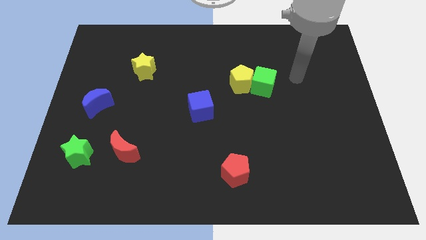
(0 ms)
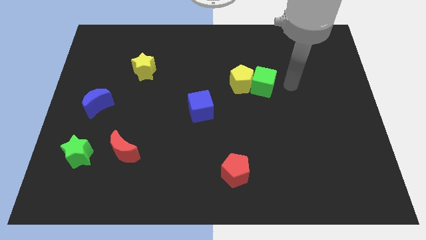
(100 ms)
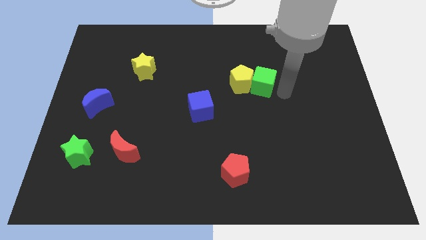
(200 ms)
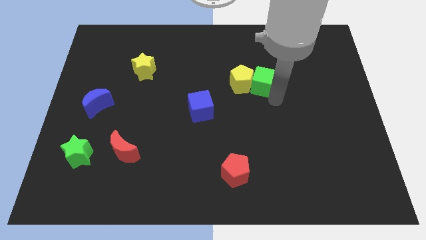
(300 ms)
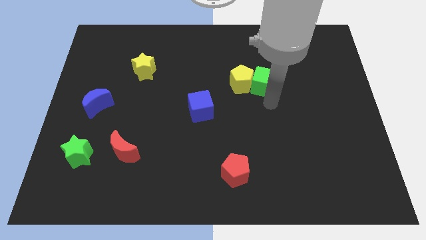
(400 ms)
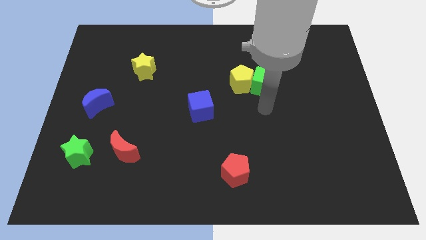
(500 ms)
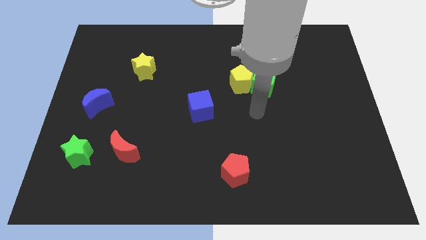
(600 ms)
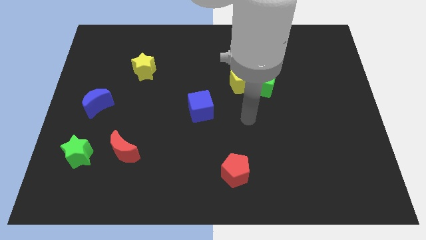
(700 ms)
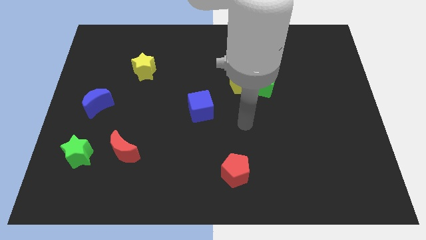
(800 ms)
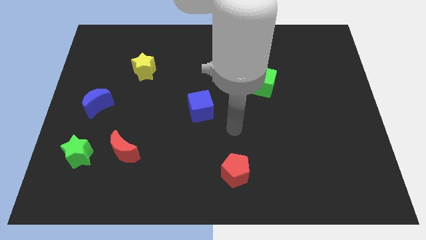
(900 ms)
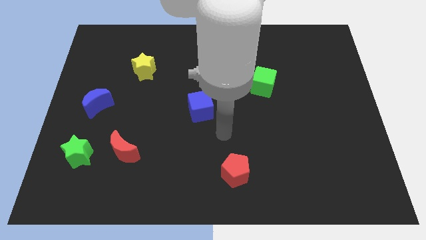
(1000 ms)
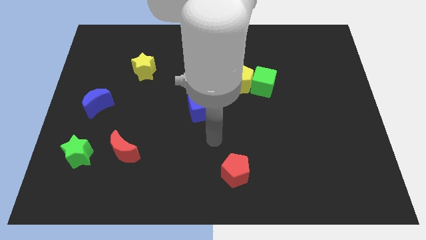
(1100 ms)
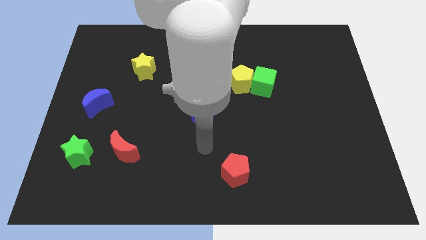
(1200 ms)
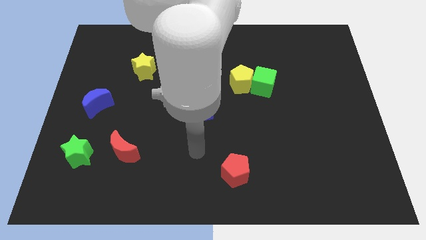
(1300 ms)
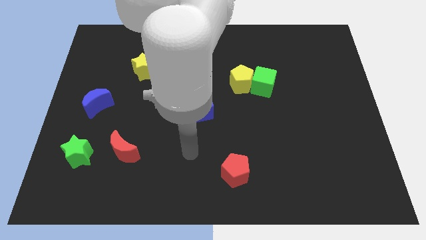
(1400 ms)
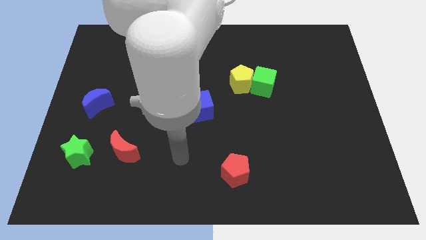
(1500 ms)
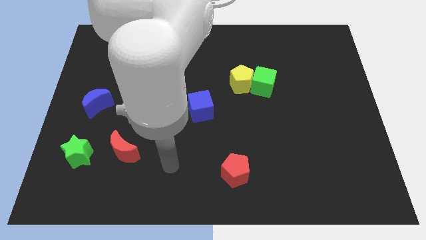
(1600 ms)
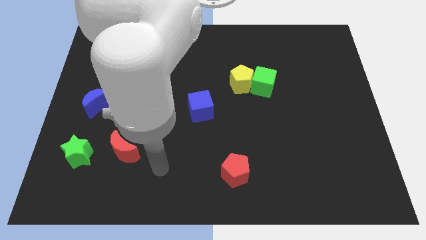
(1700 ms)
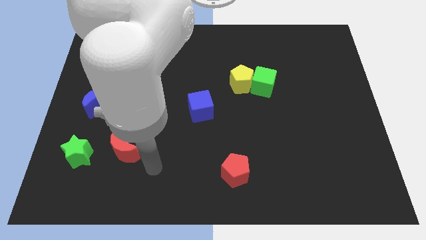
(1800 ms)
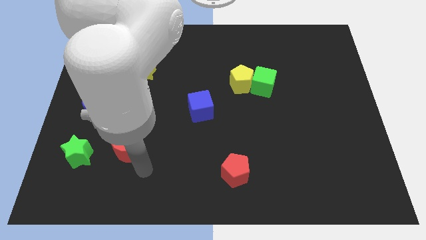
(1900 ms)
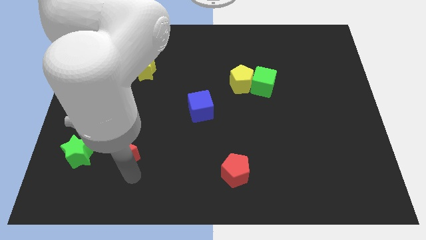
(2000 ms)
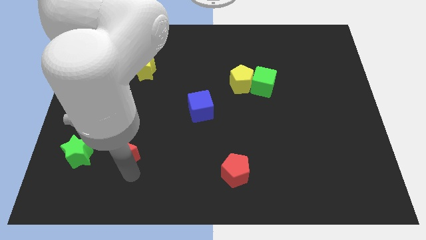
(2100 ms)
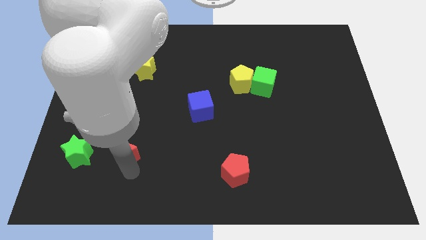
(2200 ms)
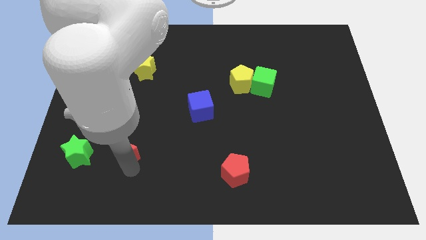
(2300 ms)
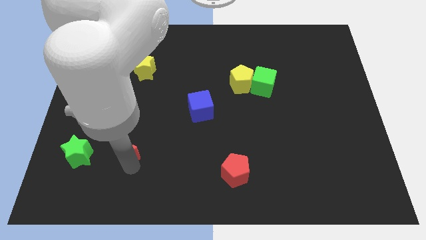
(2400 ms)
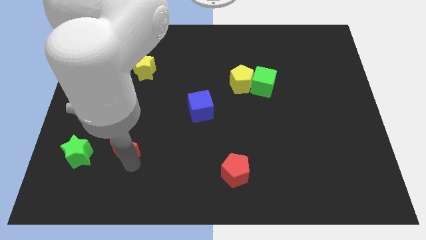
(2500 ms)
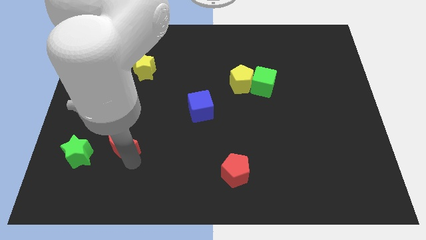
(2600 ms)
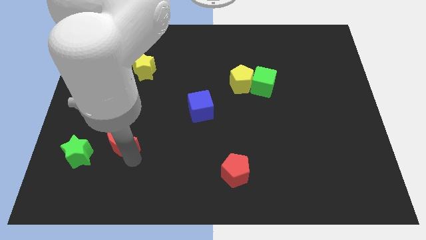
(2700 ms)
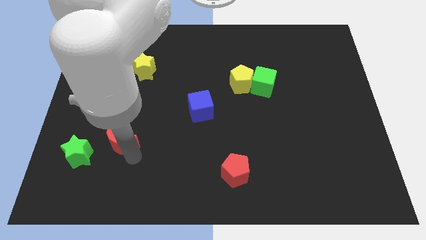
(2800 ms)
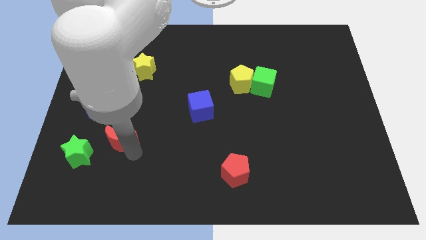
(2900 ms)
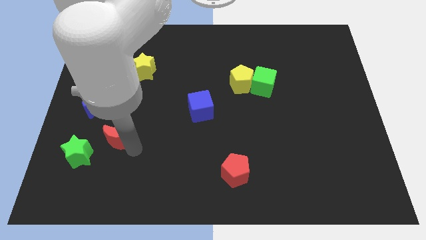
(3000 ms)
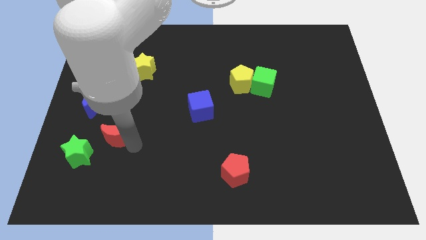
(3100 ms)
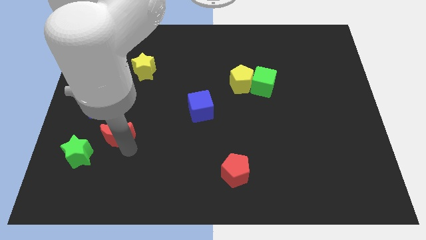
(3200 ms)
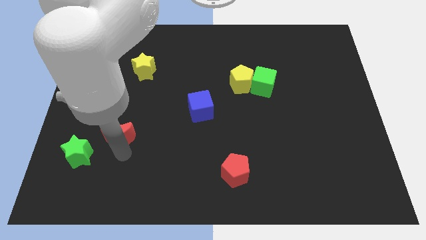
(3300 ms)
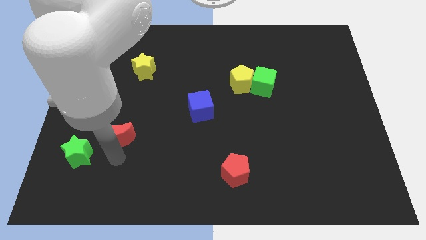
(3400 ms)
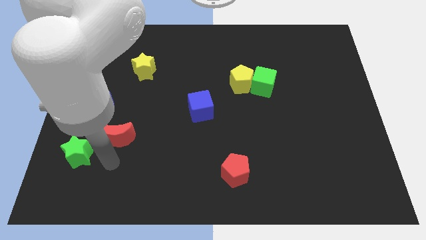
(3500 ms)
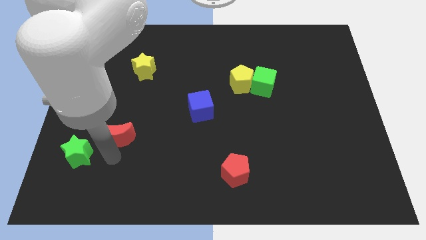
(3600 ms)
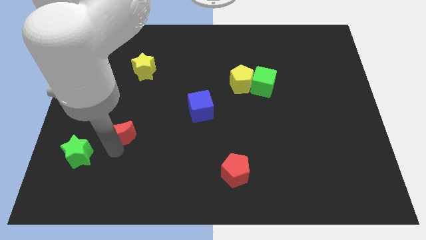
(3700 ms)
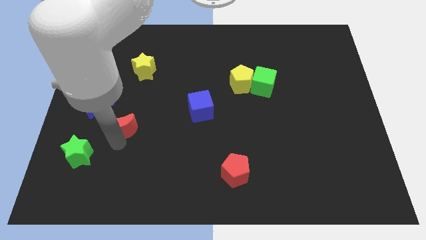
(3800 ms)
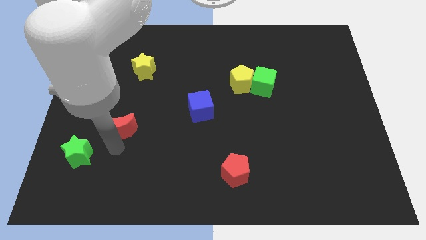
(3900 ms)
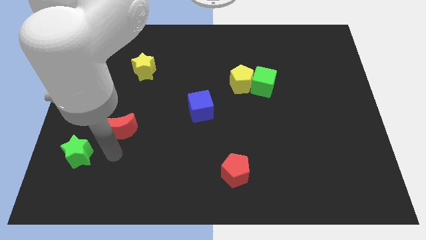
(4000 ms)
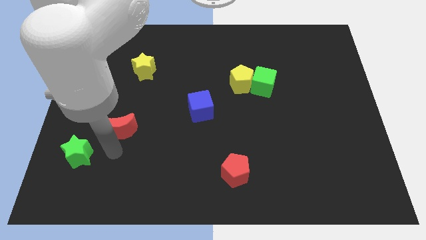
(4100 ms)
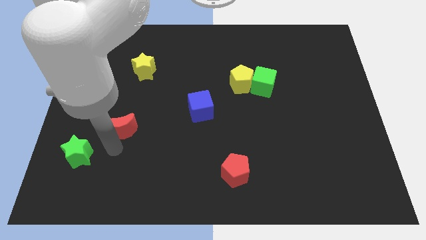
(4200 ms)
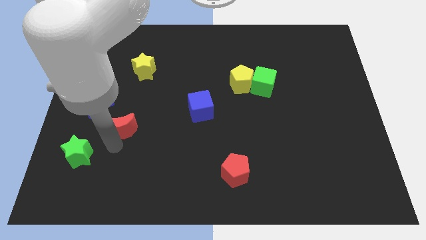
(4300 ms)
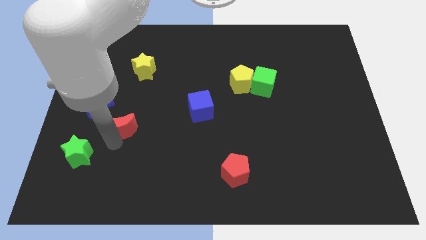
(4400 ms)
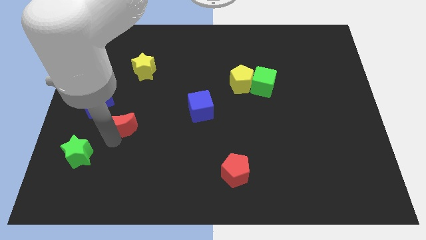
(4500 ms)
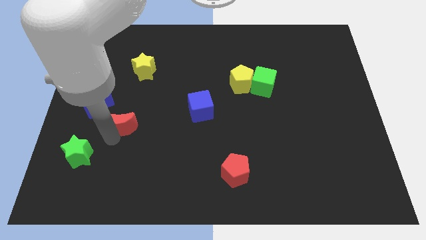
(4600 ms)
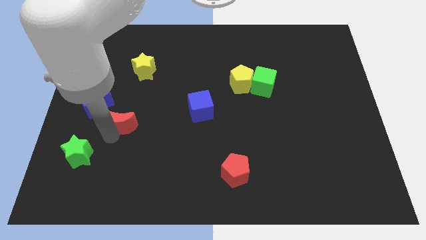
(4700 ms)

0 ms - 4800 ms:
slightly move the red moon up

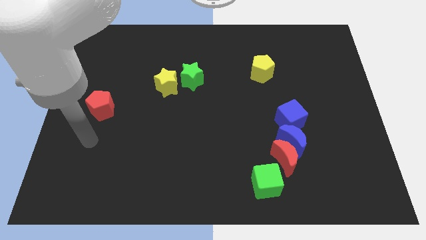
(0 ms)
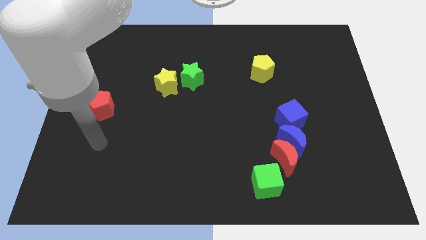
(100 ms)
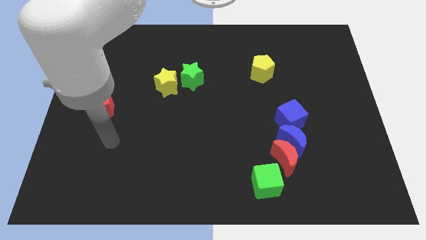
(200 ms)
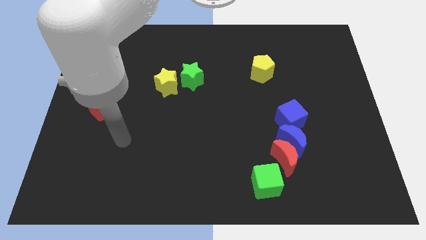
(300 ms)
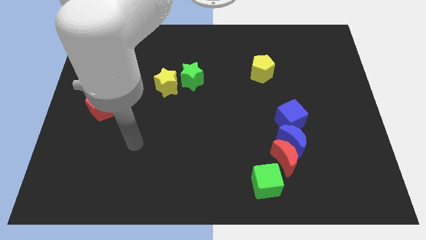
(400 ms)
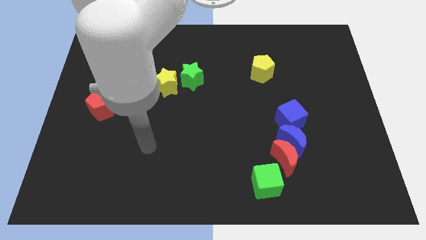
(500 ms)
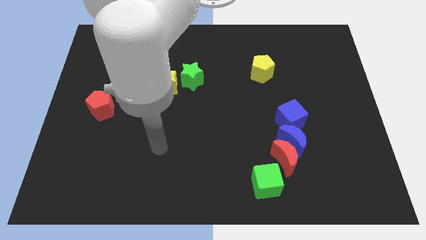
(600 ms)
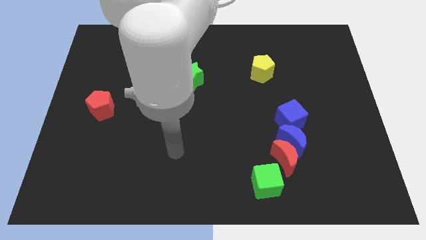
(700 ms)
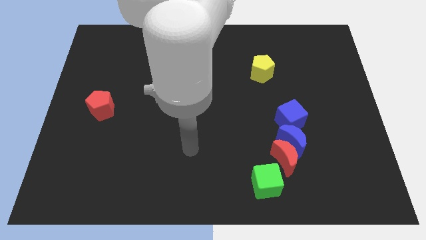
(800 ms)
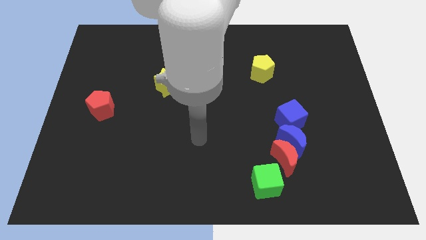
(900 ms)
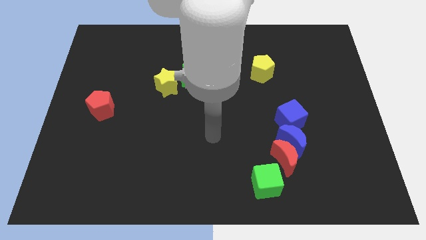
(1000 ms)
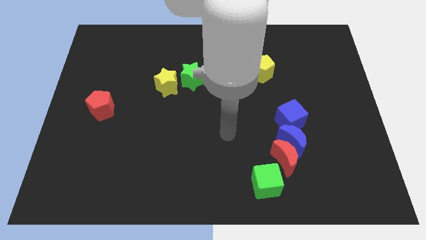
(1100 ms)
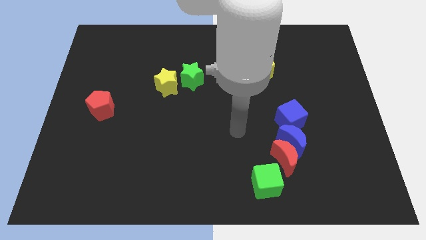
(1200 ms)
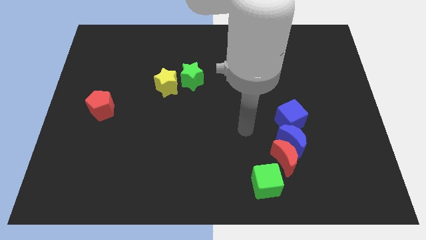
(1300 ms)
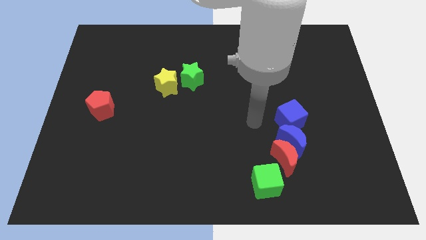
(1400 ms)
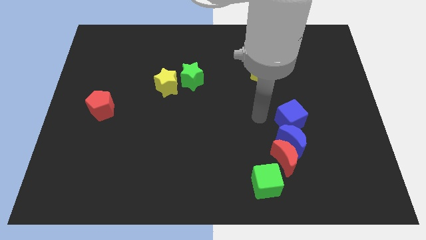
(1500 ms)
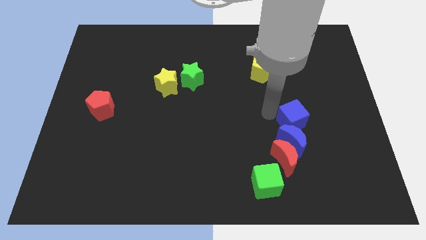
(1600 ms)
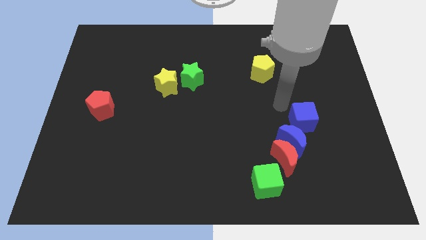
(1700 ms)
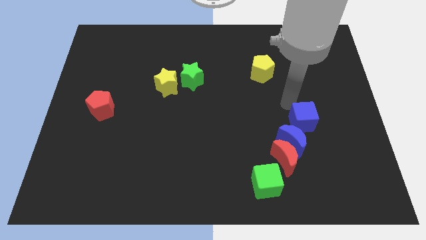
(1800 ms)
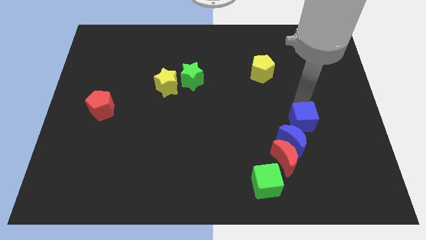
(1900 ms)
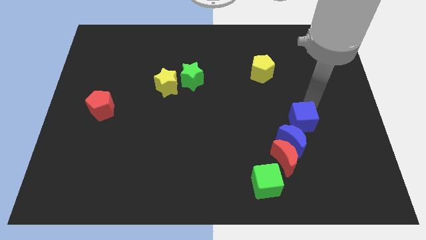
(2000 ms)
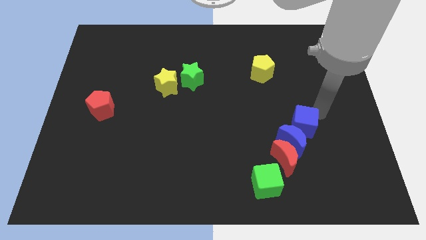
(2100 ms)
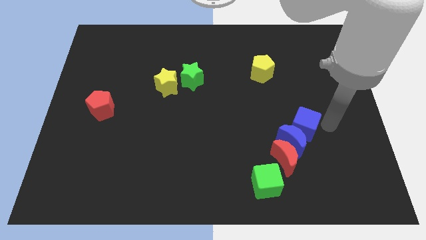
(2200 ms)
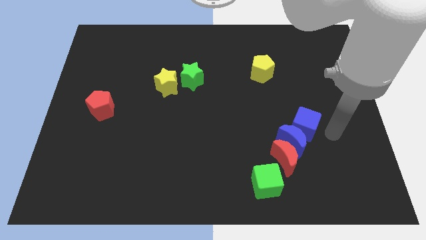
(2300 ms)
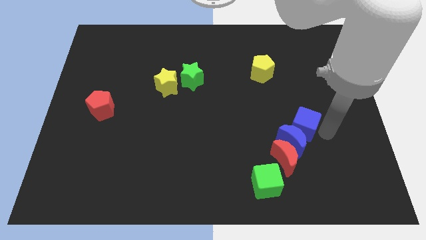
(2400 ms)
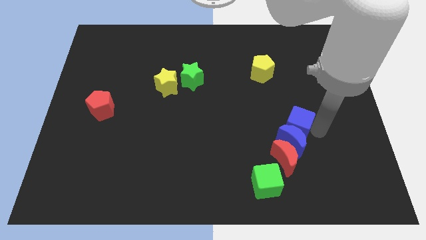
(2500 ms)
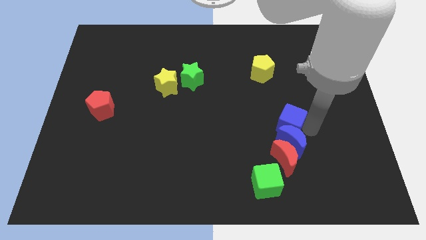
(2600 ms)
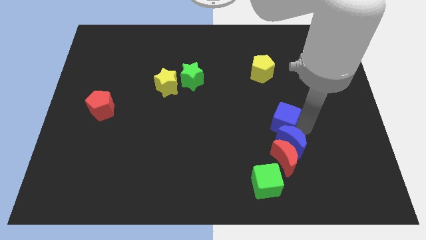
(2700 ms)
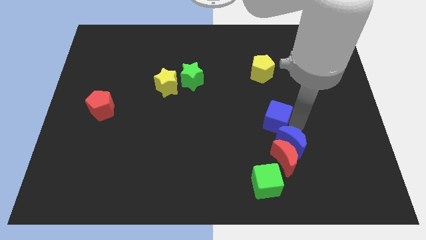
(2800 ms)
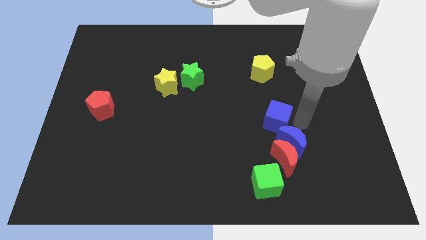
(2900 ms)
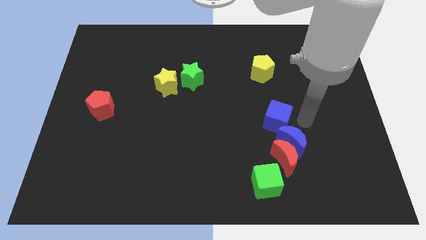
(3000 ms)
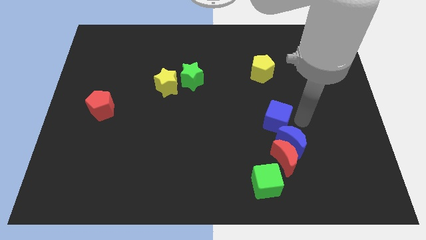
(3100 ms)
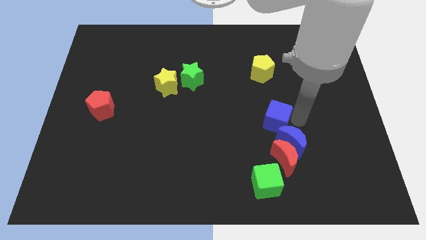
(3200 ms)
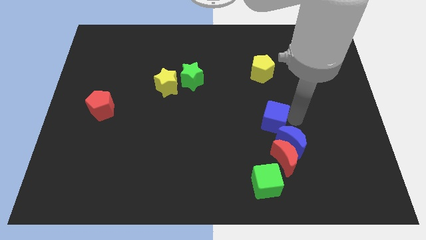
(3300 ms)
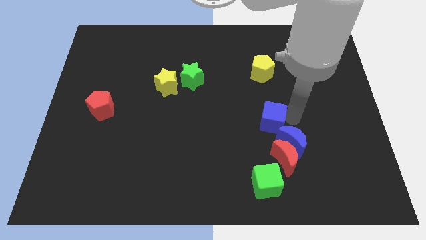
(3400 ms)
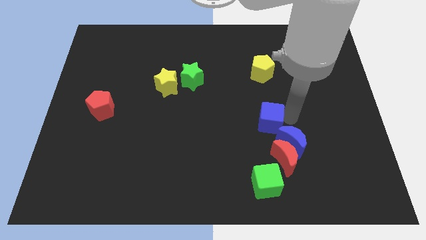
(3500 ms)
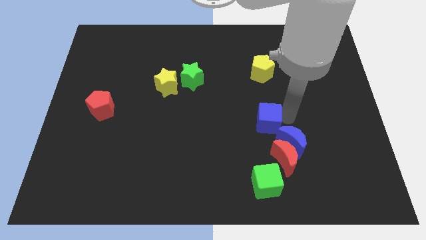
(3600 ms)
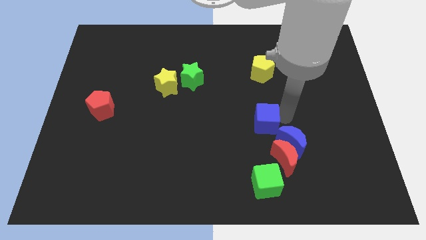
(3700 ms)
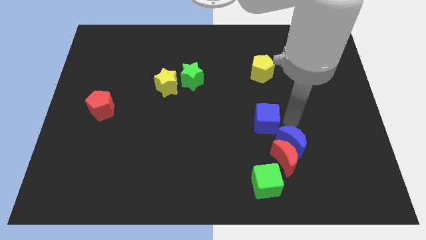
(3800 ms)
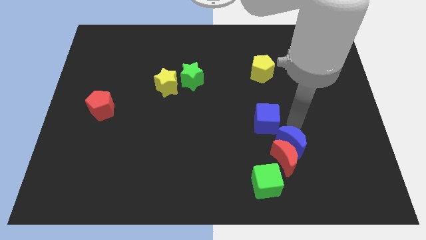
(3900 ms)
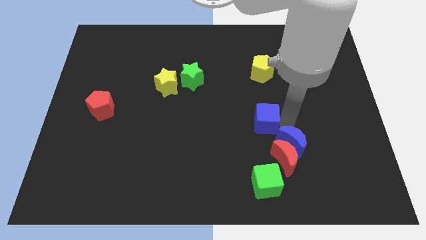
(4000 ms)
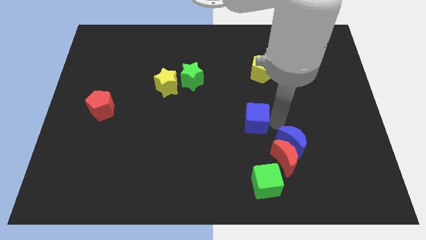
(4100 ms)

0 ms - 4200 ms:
move the blue cube to the left somewhat
